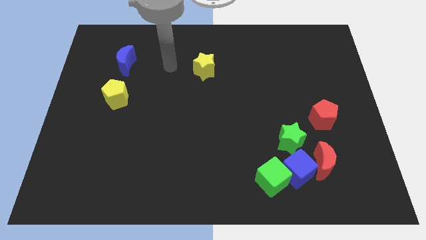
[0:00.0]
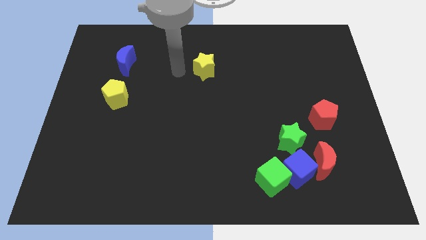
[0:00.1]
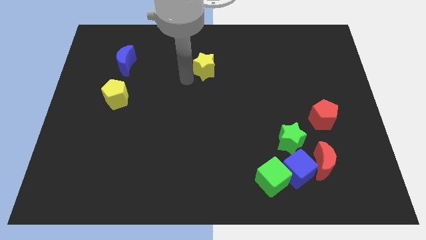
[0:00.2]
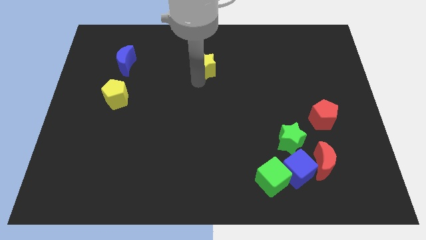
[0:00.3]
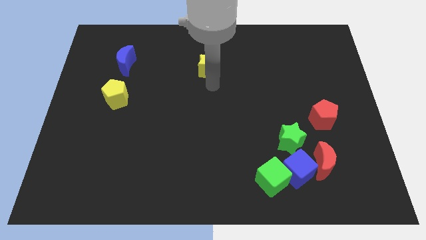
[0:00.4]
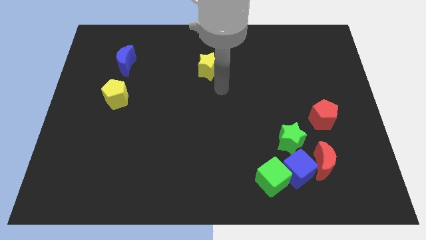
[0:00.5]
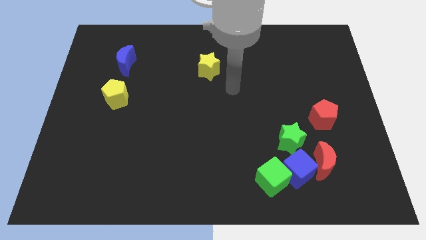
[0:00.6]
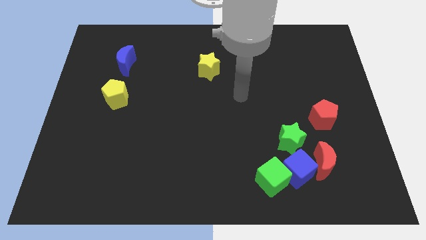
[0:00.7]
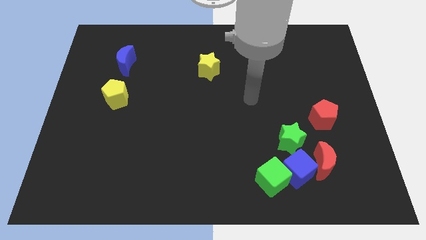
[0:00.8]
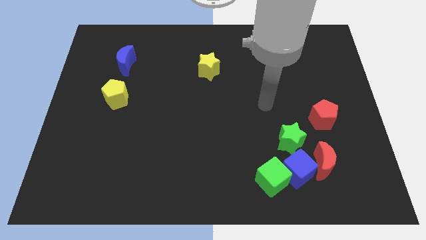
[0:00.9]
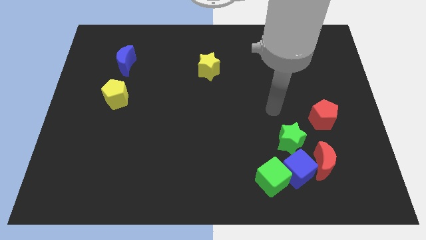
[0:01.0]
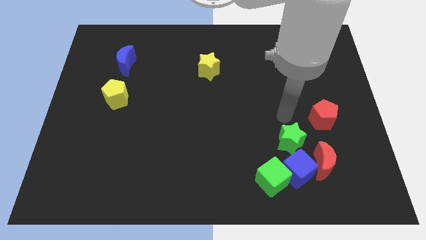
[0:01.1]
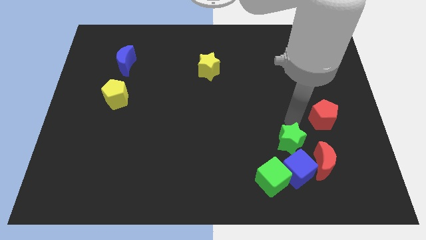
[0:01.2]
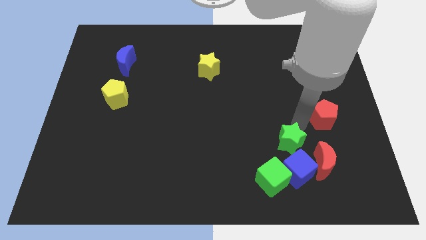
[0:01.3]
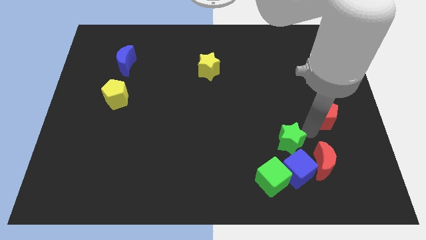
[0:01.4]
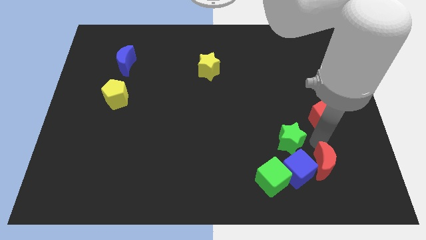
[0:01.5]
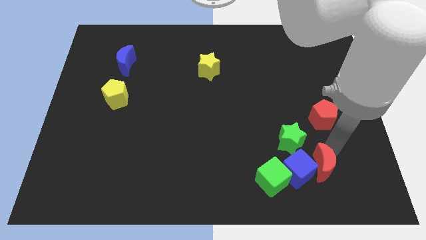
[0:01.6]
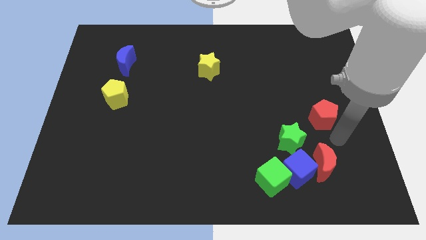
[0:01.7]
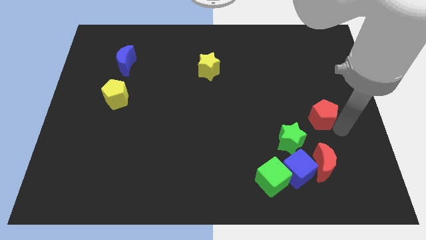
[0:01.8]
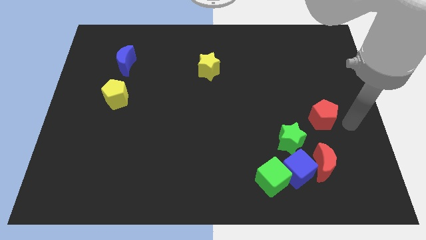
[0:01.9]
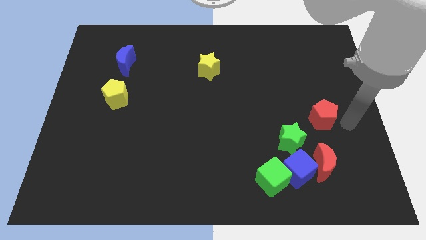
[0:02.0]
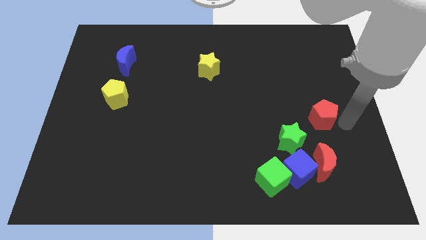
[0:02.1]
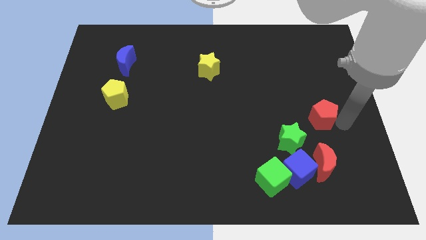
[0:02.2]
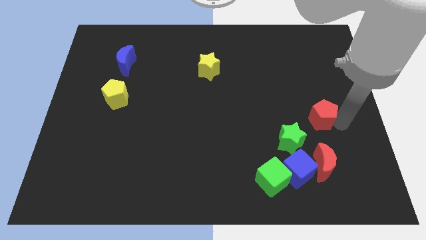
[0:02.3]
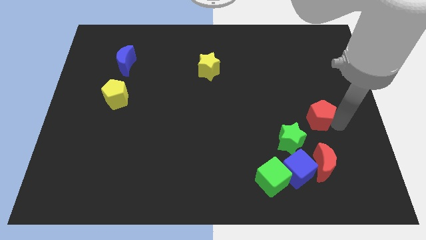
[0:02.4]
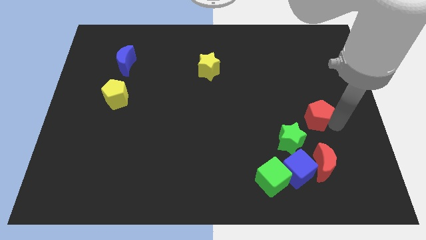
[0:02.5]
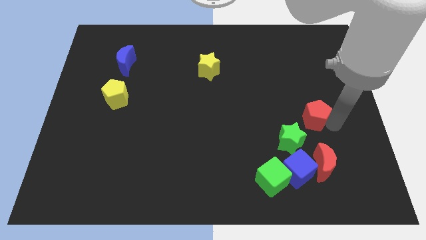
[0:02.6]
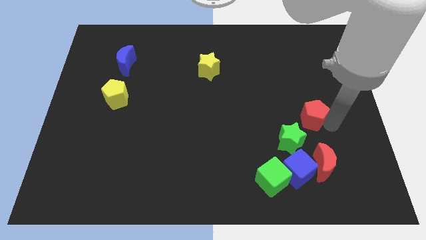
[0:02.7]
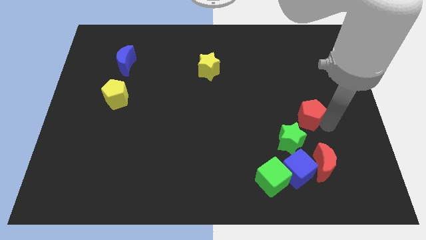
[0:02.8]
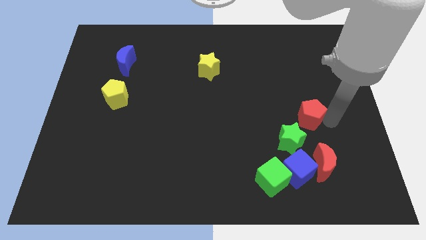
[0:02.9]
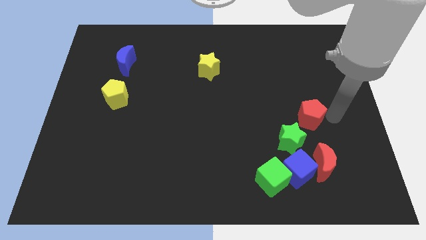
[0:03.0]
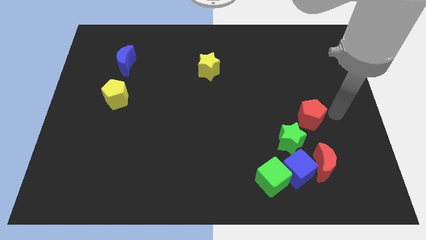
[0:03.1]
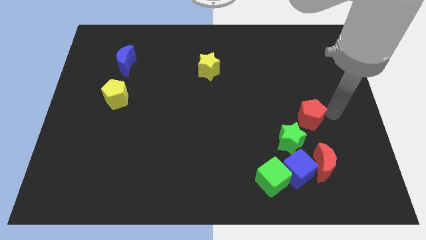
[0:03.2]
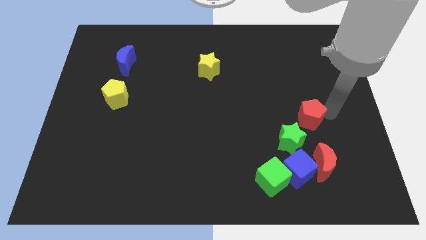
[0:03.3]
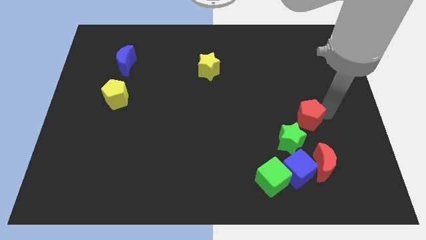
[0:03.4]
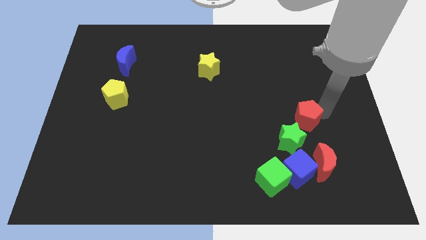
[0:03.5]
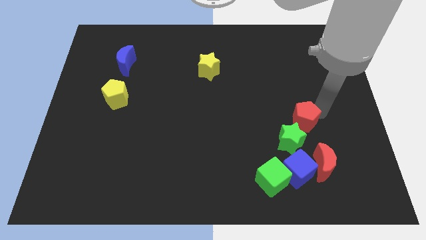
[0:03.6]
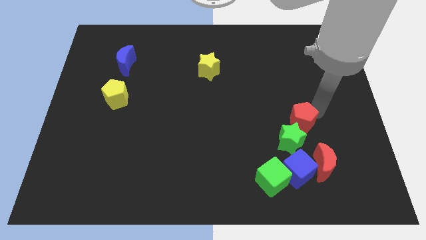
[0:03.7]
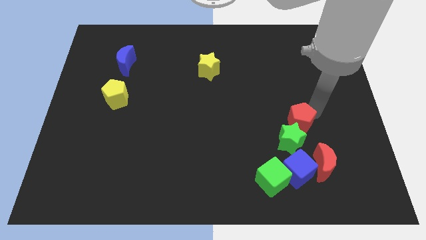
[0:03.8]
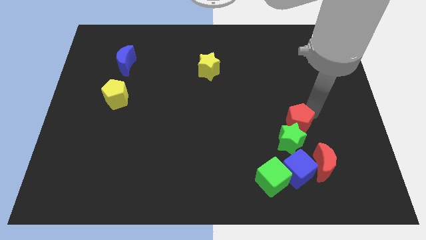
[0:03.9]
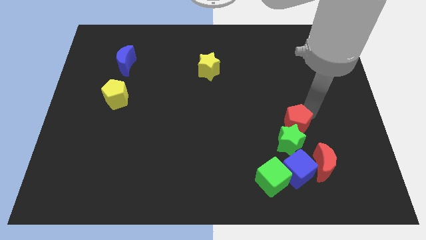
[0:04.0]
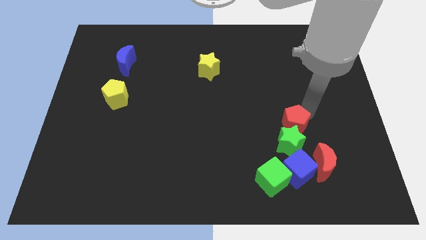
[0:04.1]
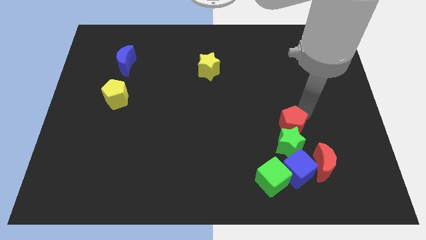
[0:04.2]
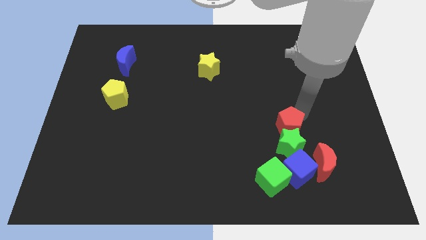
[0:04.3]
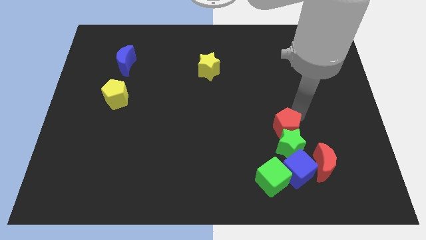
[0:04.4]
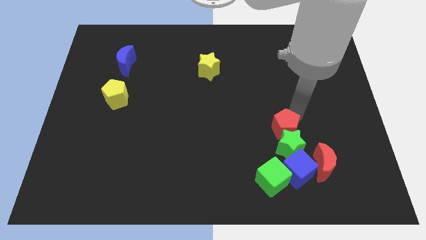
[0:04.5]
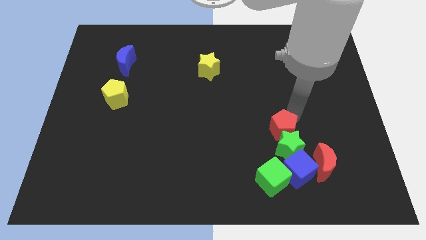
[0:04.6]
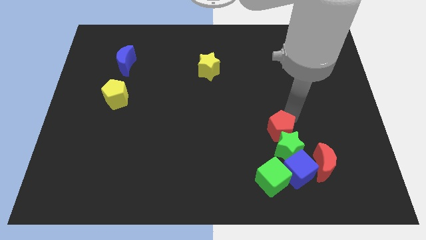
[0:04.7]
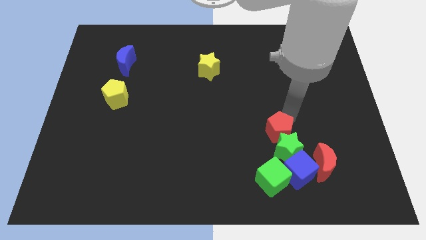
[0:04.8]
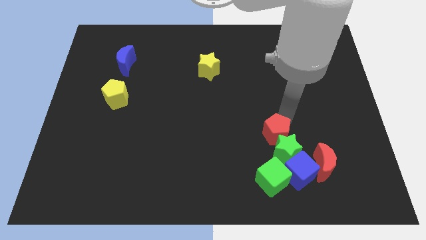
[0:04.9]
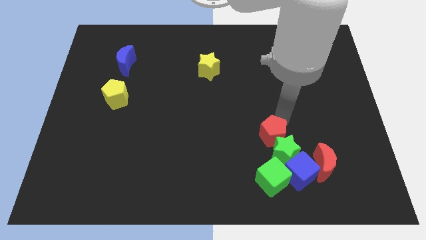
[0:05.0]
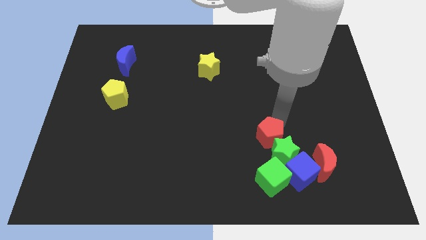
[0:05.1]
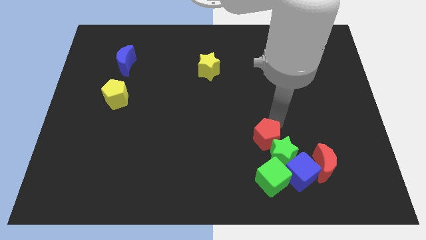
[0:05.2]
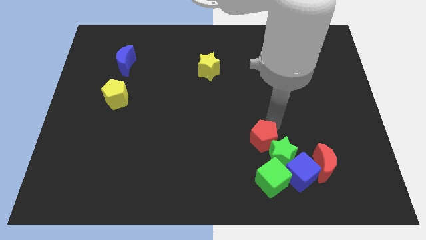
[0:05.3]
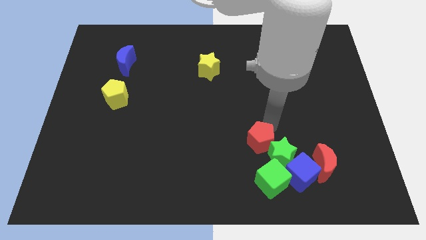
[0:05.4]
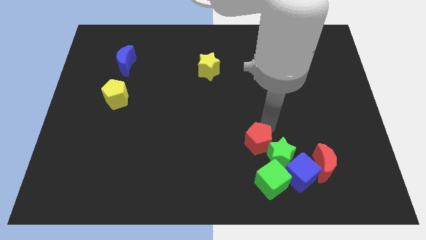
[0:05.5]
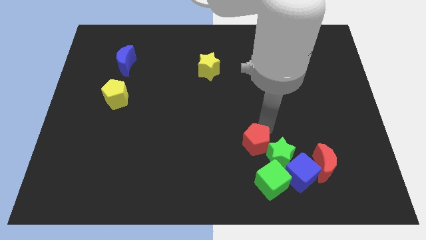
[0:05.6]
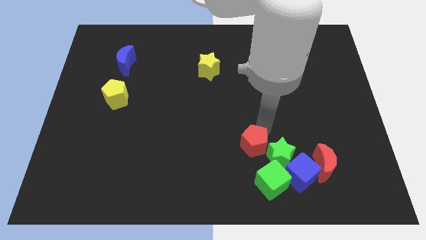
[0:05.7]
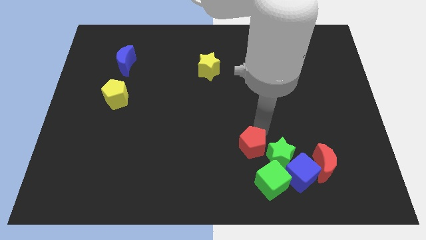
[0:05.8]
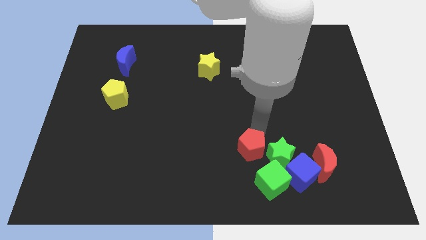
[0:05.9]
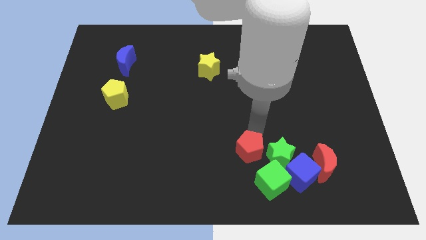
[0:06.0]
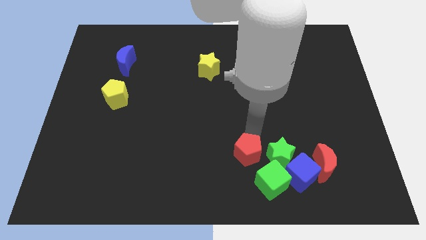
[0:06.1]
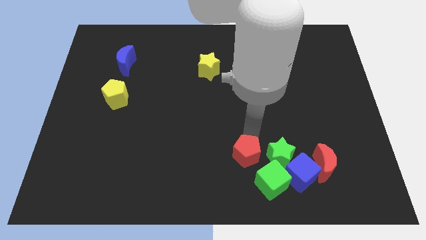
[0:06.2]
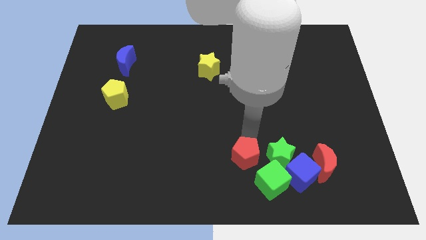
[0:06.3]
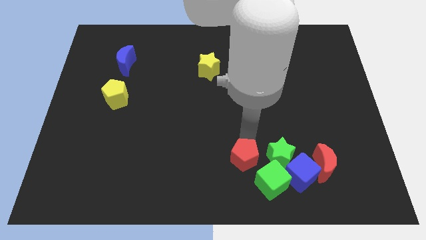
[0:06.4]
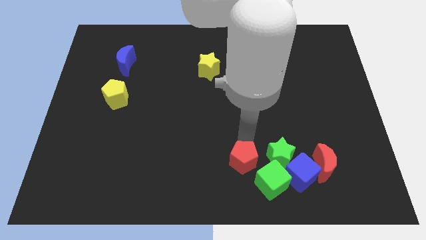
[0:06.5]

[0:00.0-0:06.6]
move the red pentagon just left of the green cube
